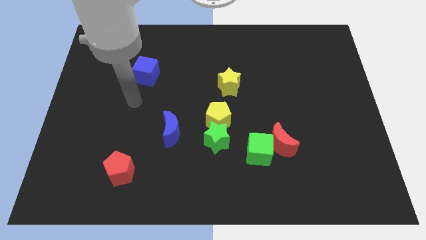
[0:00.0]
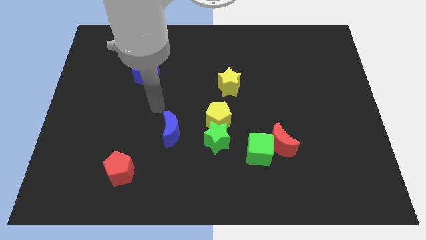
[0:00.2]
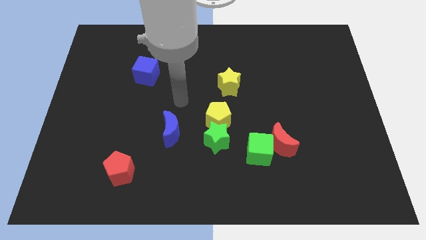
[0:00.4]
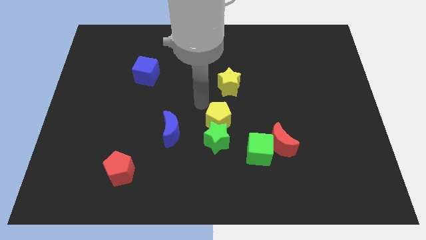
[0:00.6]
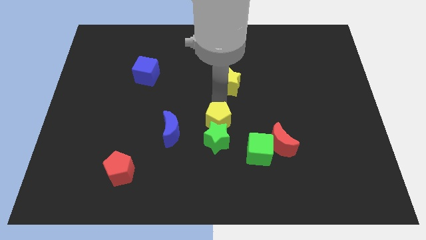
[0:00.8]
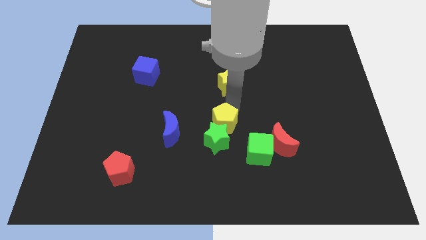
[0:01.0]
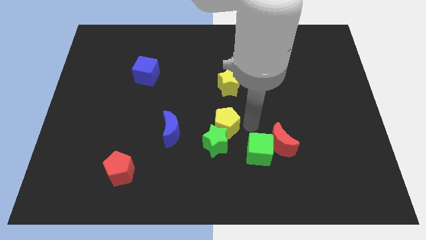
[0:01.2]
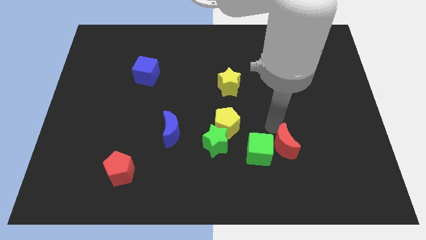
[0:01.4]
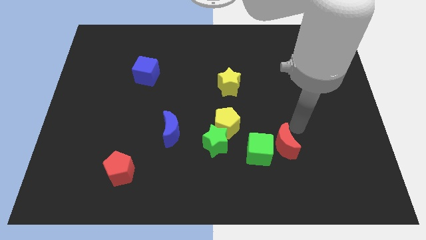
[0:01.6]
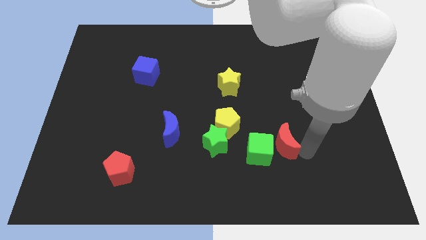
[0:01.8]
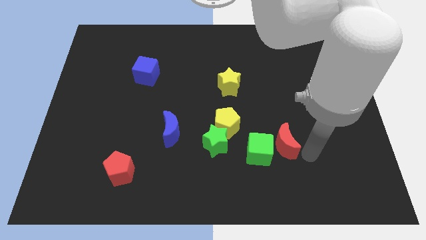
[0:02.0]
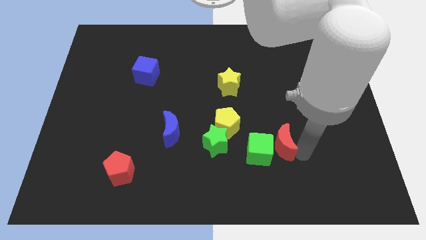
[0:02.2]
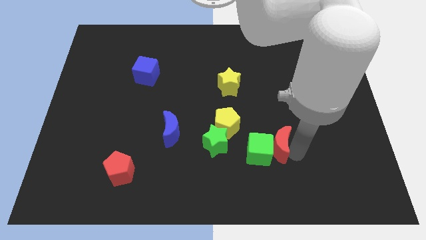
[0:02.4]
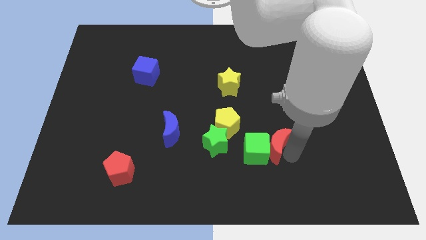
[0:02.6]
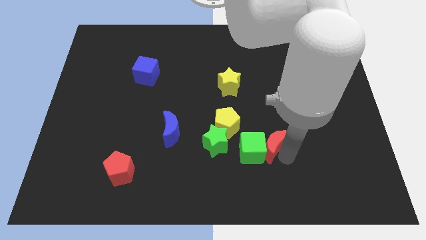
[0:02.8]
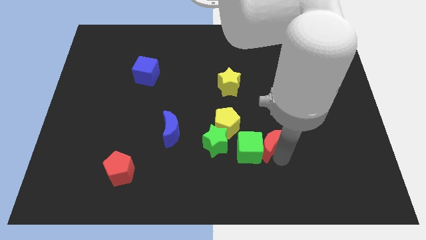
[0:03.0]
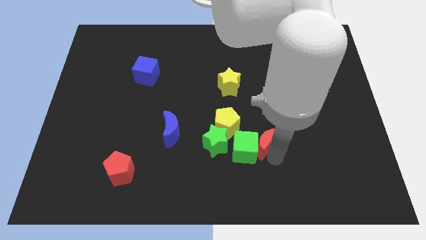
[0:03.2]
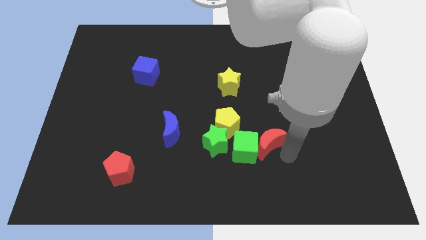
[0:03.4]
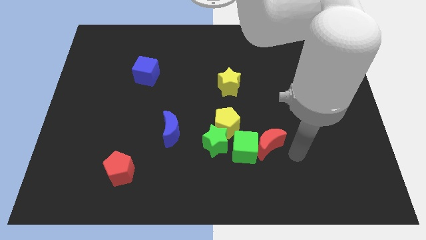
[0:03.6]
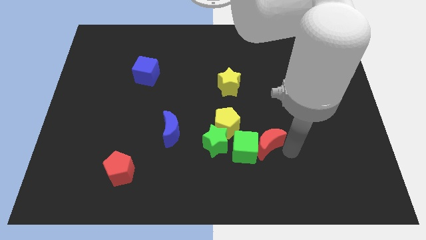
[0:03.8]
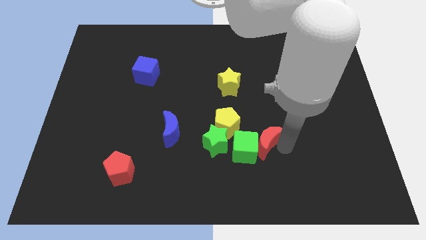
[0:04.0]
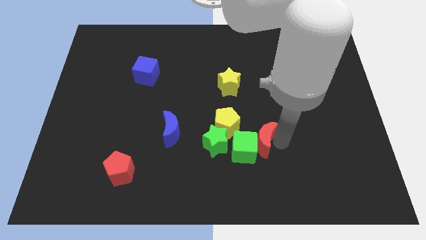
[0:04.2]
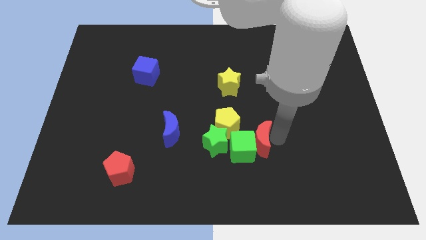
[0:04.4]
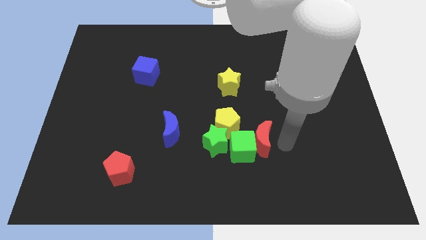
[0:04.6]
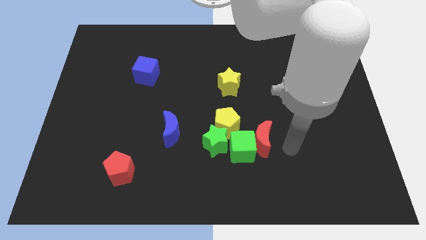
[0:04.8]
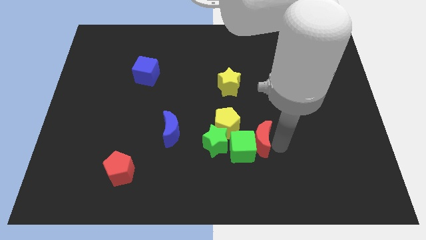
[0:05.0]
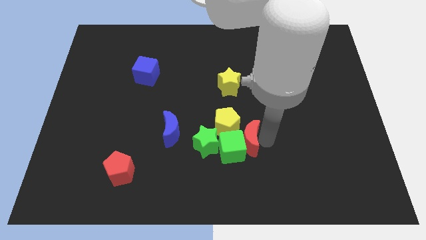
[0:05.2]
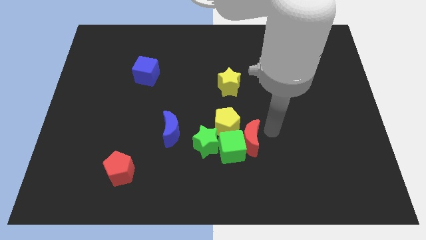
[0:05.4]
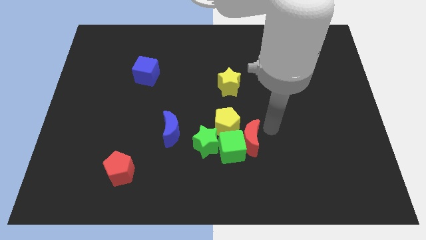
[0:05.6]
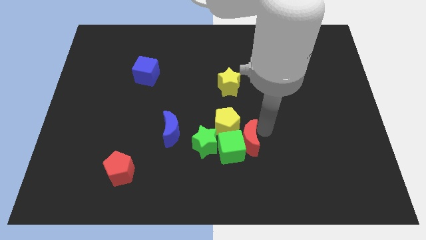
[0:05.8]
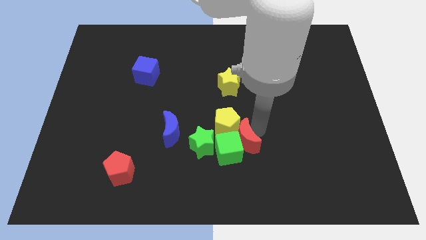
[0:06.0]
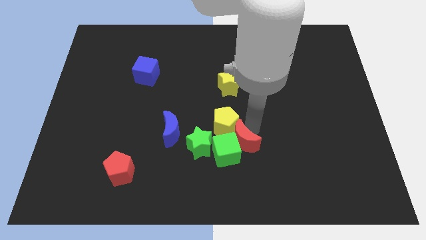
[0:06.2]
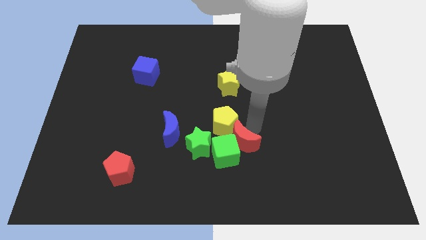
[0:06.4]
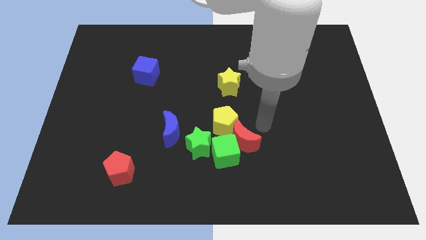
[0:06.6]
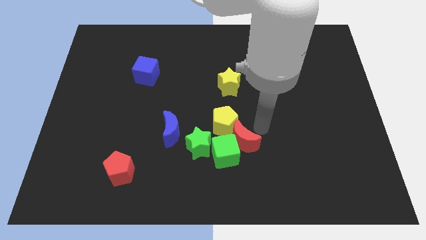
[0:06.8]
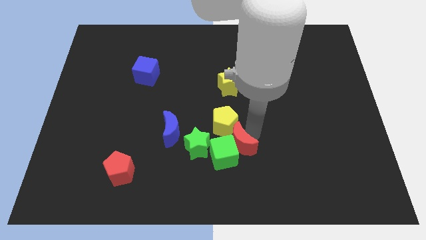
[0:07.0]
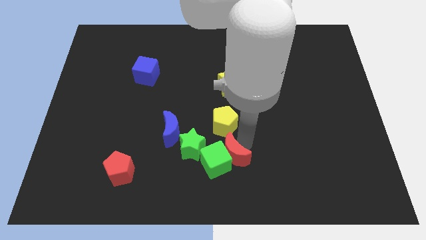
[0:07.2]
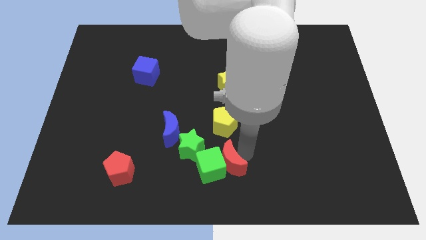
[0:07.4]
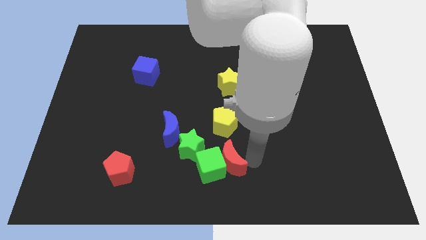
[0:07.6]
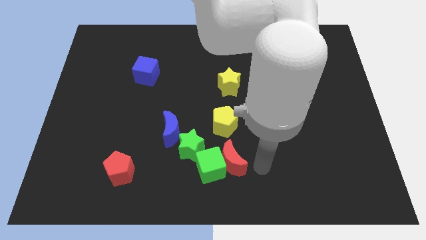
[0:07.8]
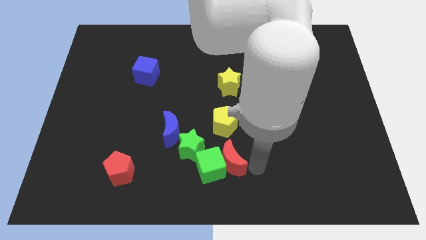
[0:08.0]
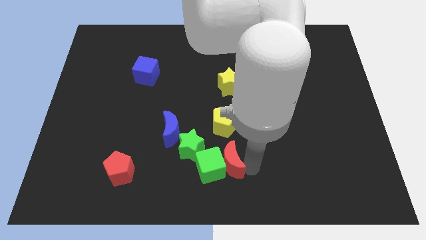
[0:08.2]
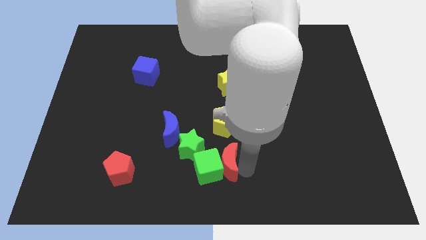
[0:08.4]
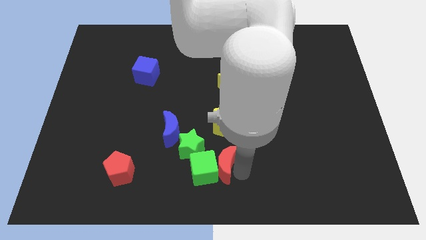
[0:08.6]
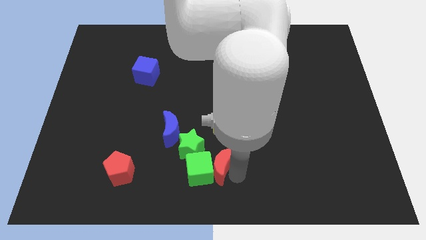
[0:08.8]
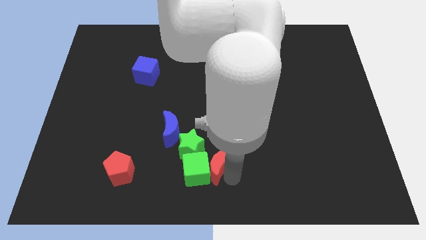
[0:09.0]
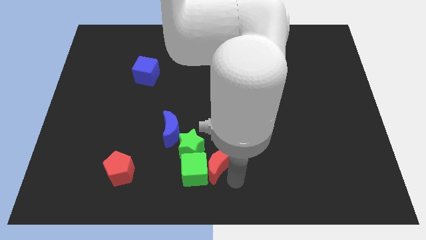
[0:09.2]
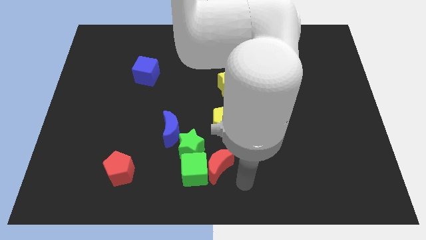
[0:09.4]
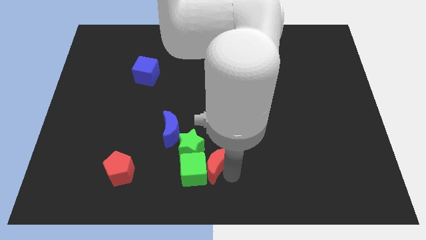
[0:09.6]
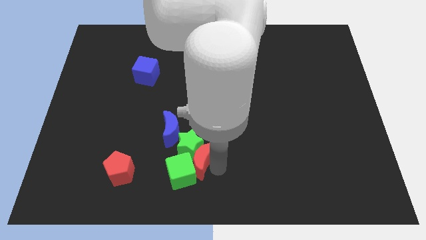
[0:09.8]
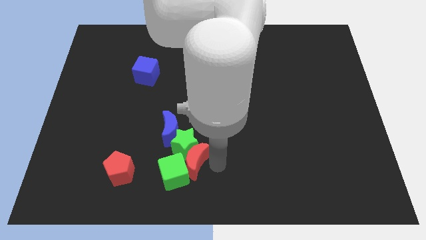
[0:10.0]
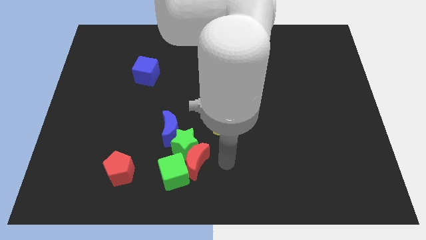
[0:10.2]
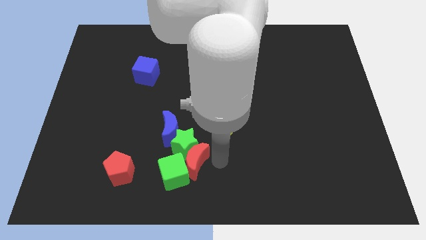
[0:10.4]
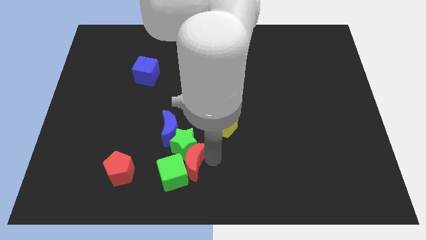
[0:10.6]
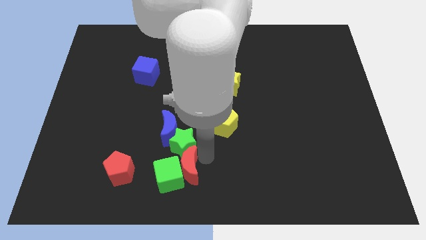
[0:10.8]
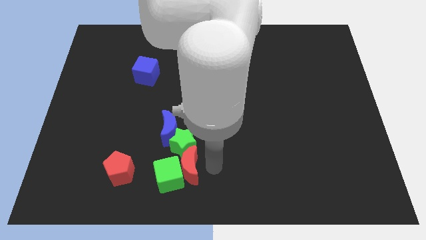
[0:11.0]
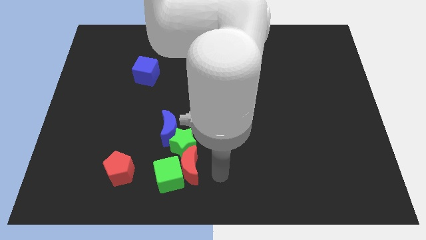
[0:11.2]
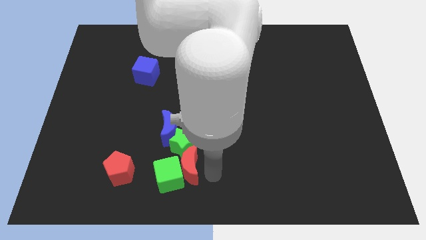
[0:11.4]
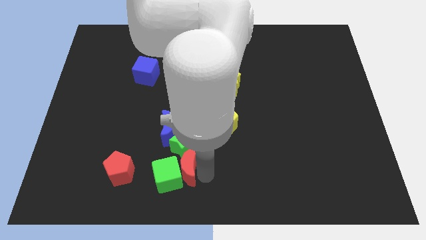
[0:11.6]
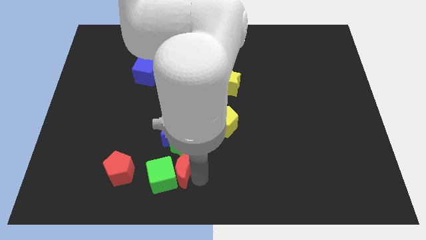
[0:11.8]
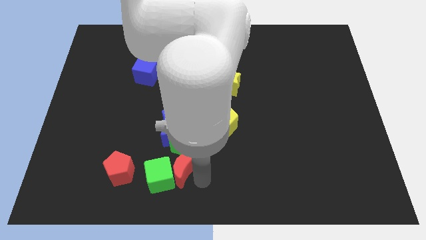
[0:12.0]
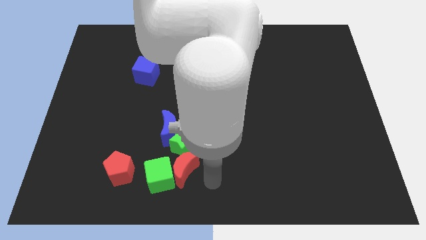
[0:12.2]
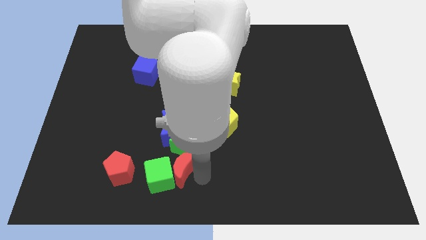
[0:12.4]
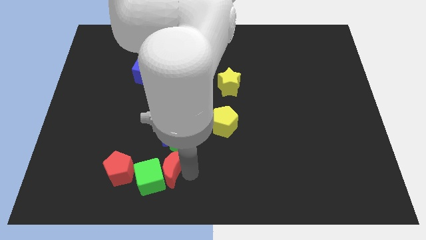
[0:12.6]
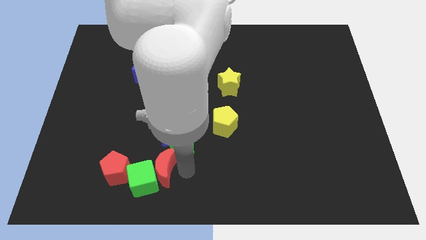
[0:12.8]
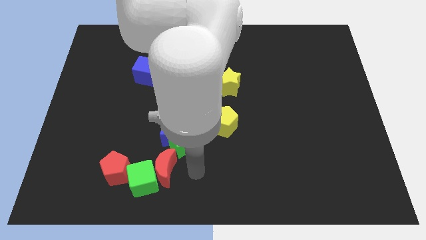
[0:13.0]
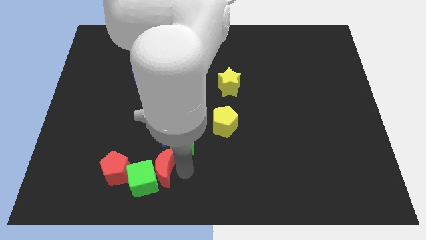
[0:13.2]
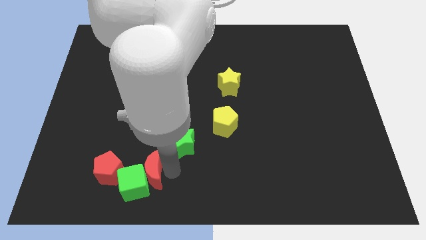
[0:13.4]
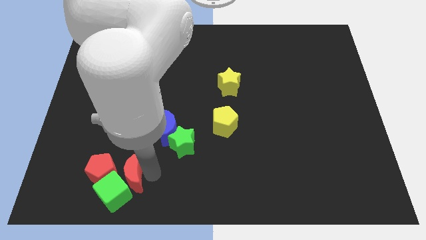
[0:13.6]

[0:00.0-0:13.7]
put the red moon to the red pentagon
